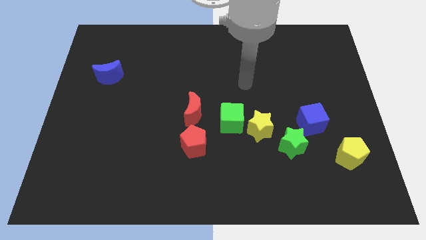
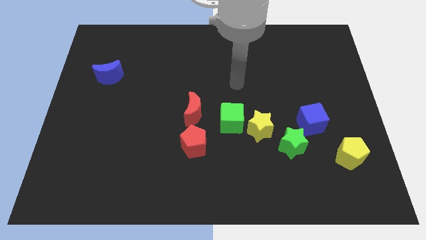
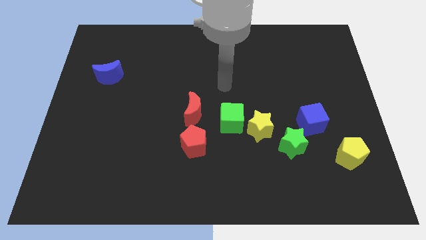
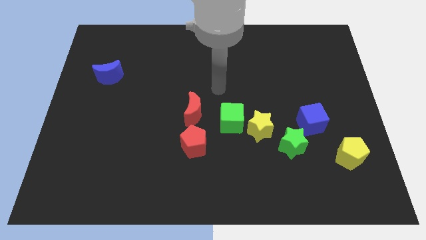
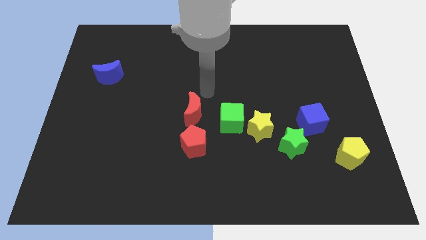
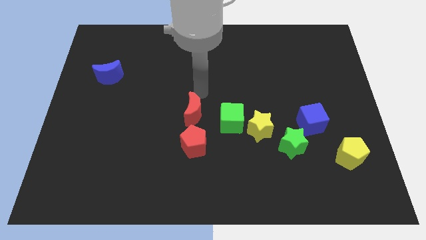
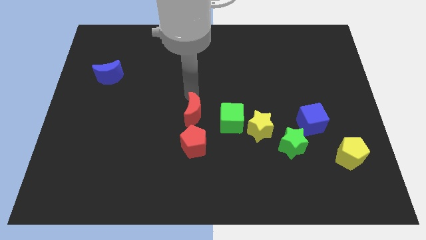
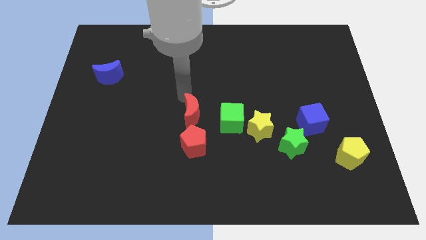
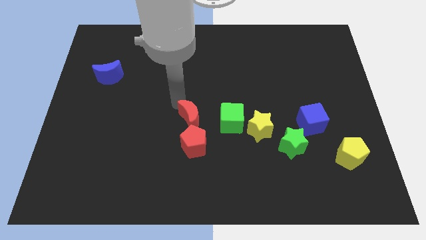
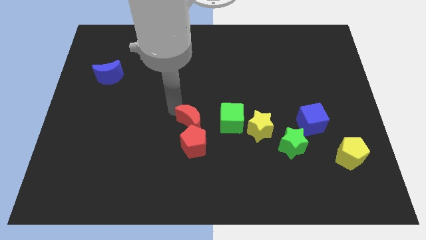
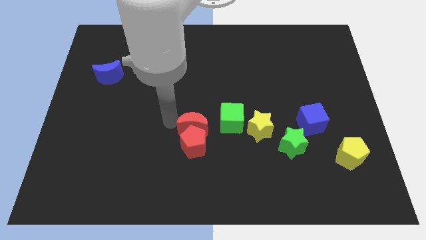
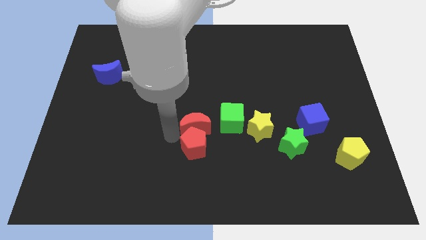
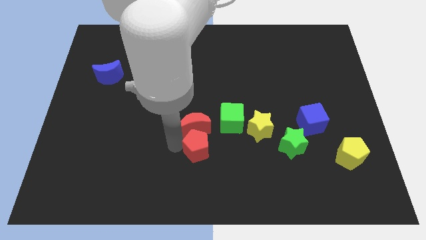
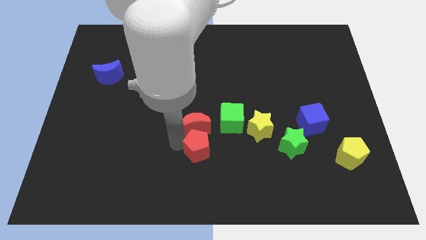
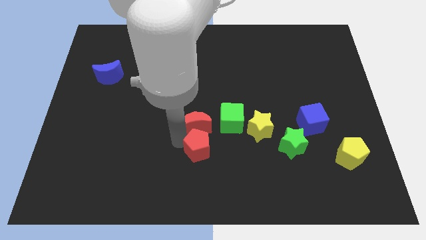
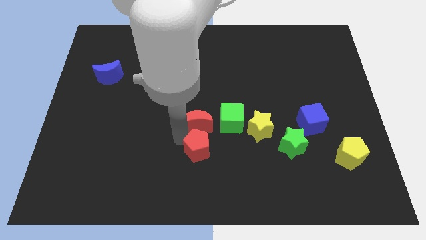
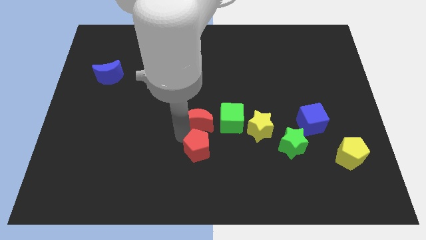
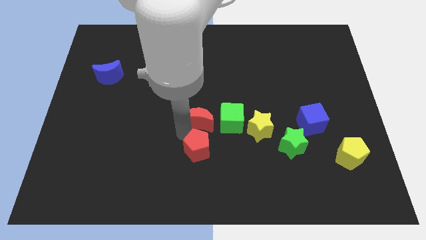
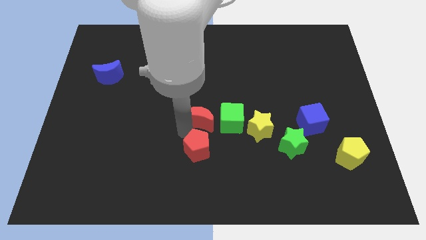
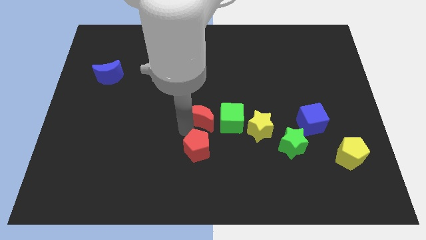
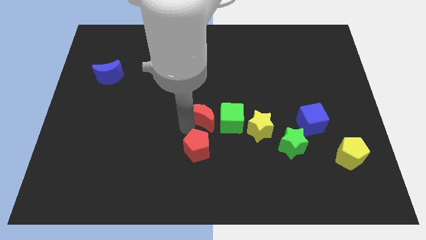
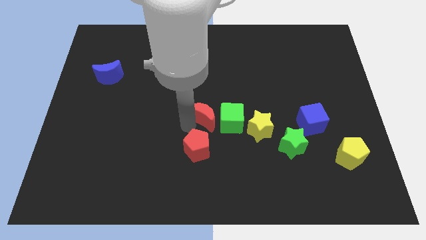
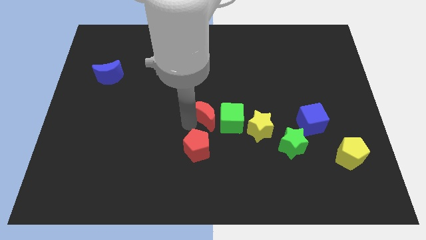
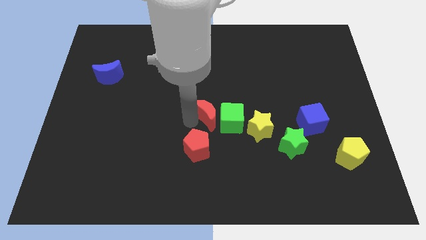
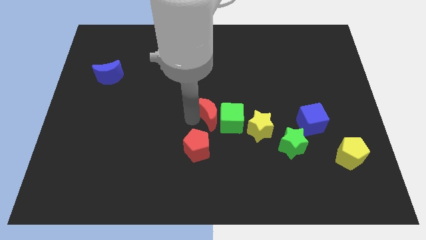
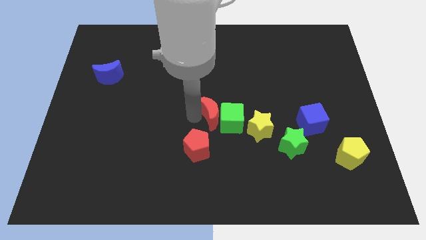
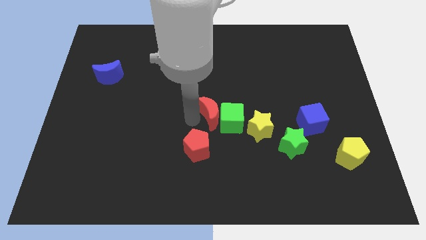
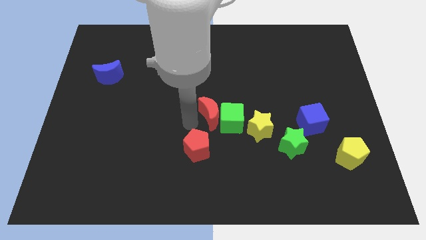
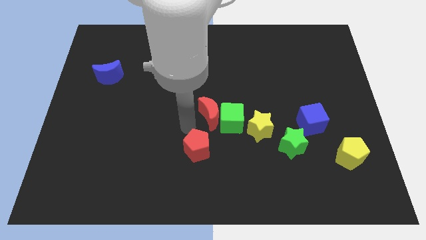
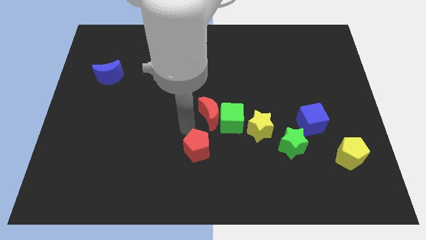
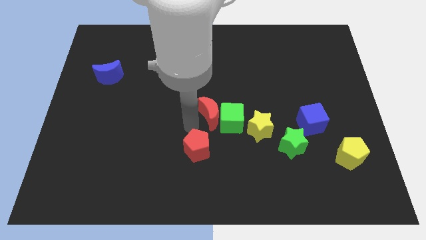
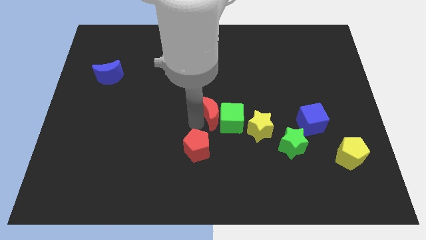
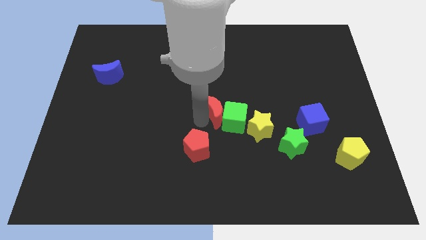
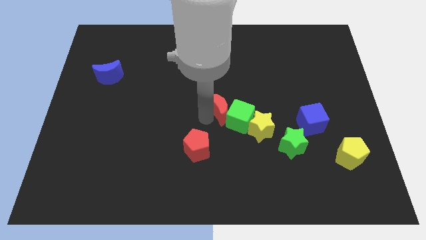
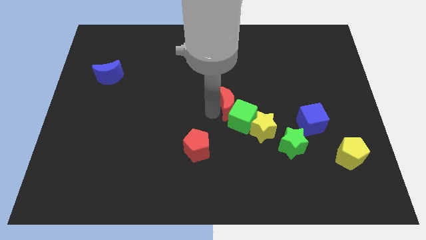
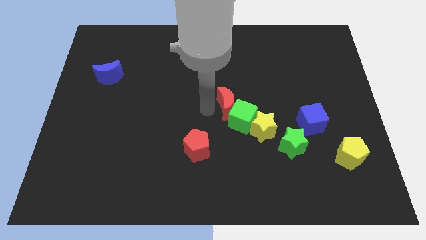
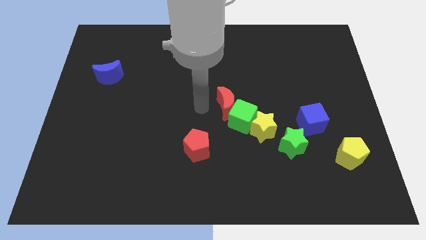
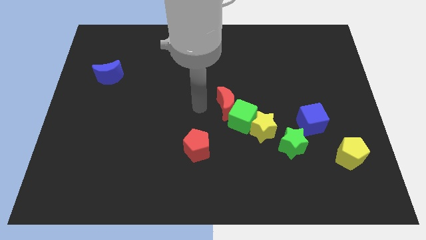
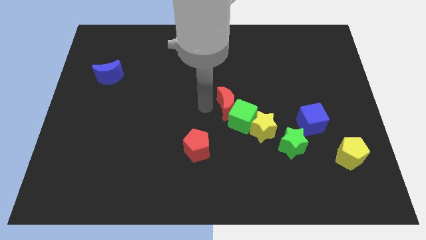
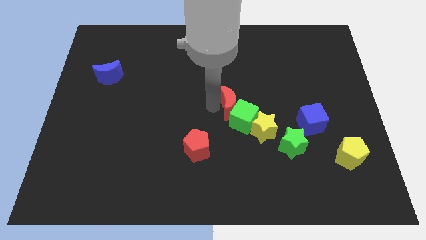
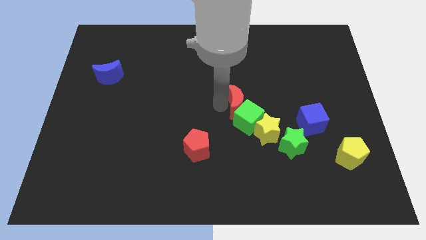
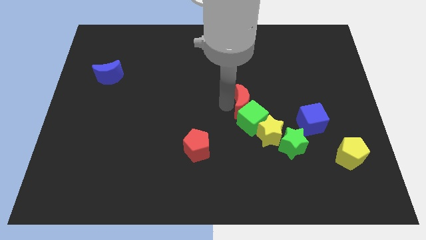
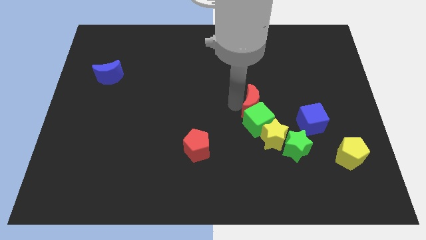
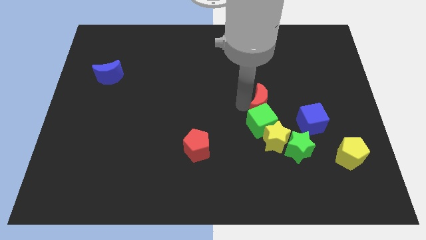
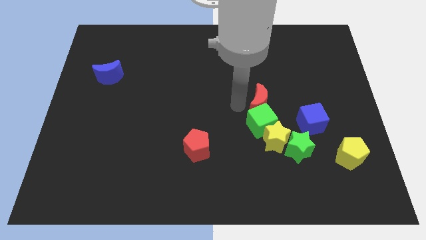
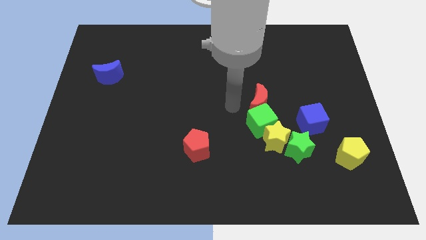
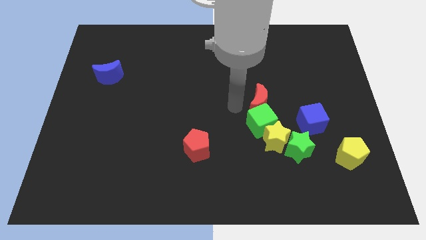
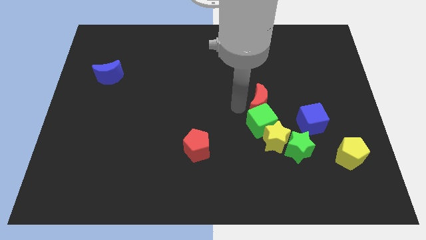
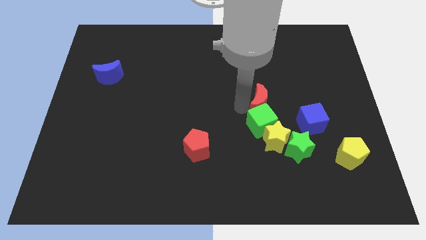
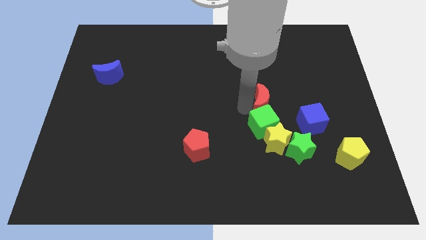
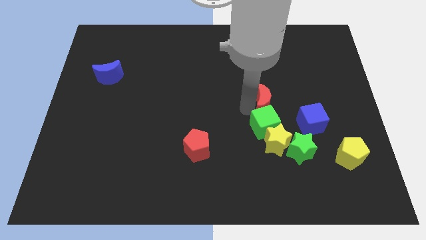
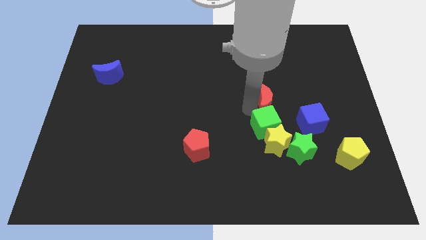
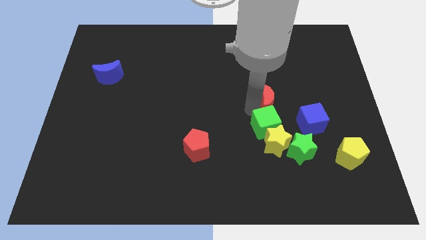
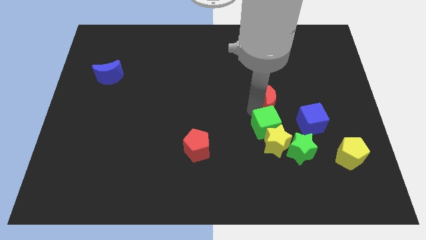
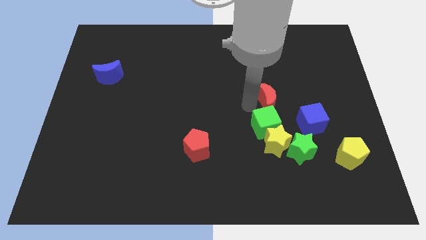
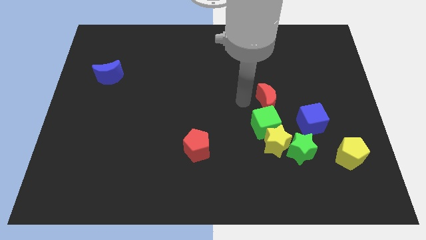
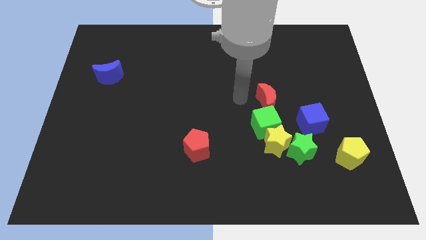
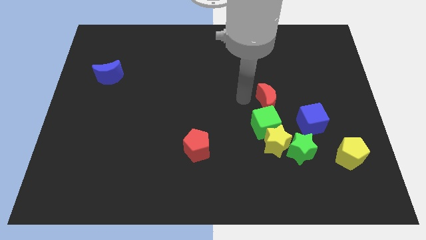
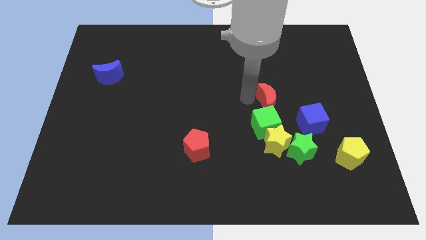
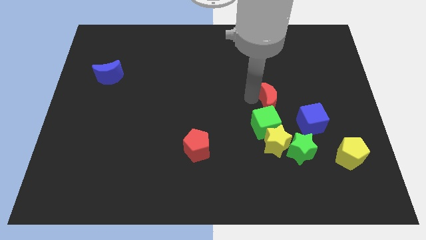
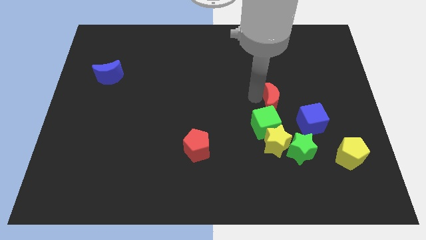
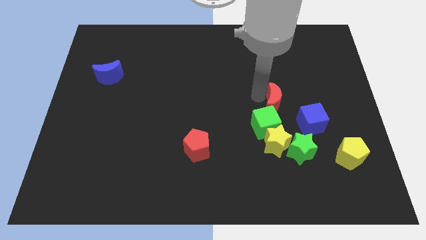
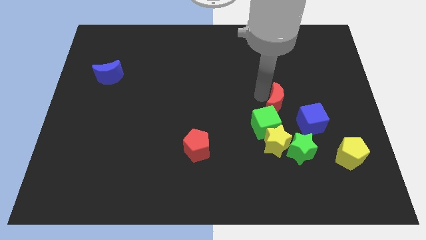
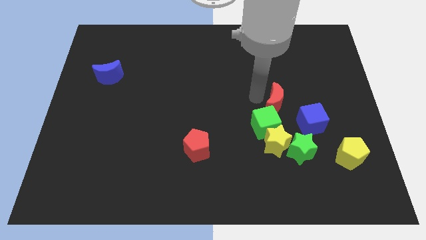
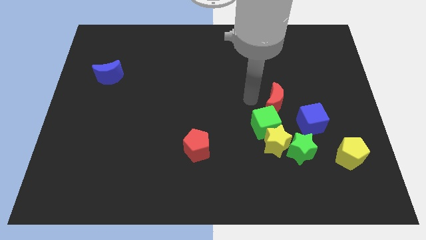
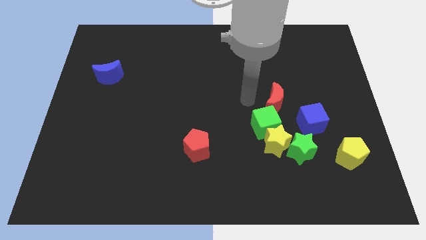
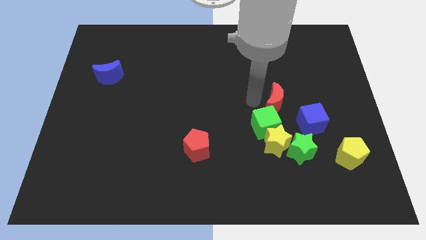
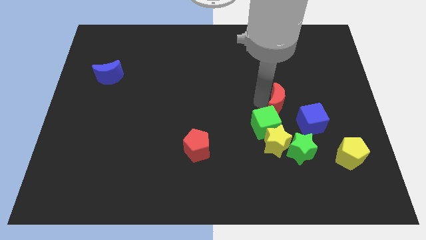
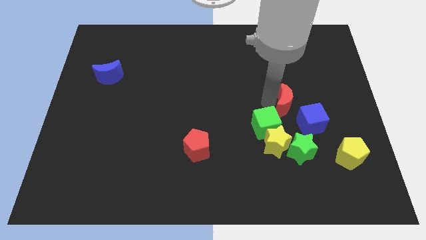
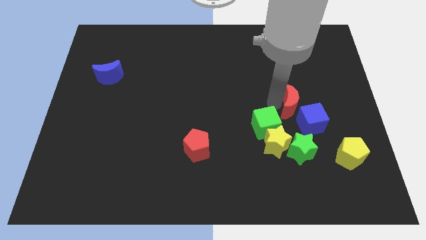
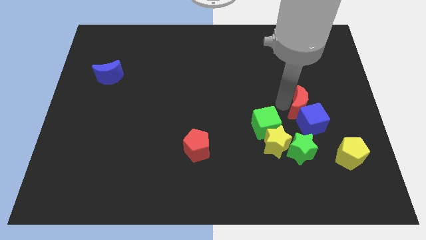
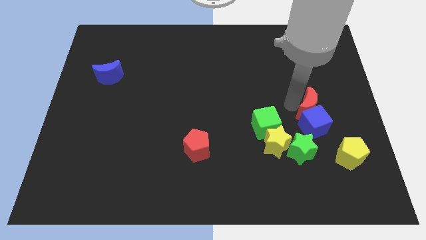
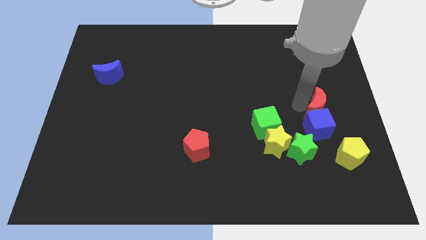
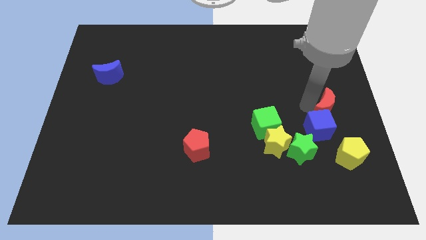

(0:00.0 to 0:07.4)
put the red moon to the top of the yellow pentagon
